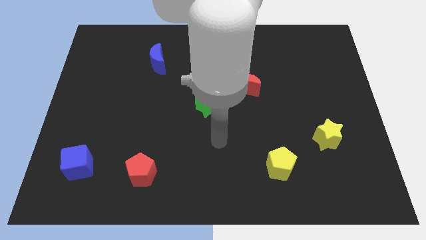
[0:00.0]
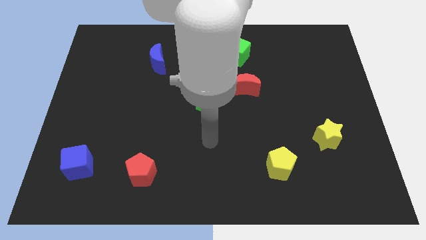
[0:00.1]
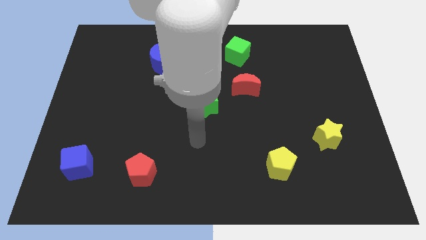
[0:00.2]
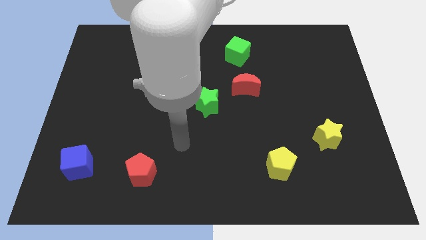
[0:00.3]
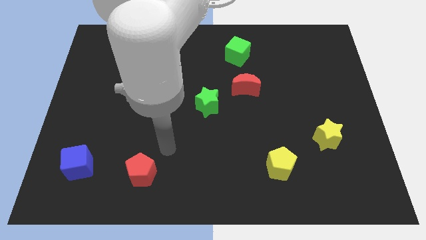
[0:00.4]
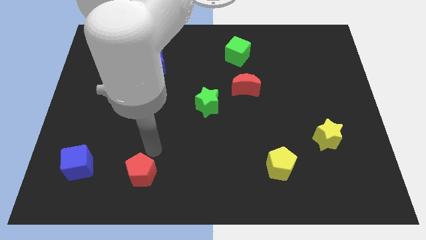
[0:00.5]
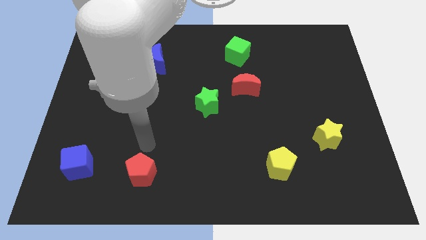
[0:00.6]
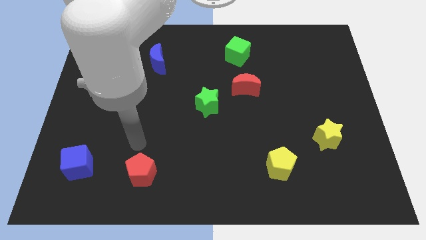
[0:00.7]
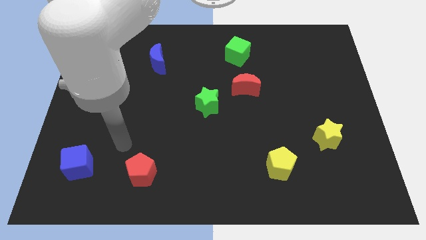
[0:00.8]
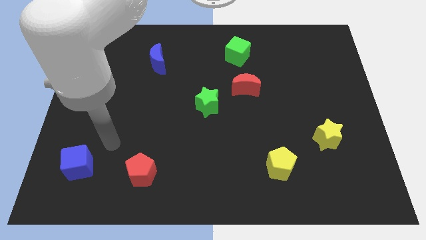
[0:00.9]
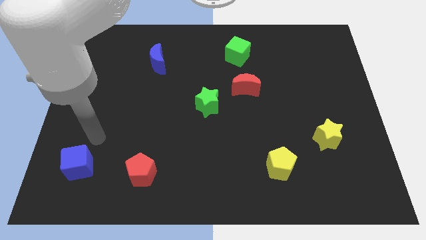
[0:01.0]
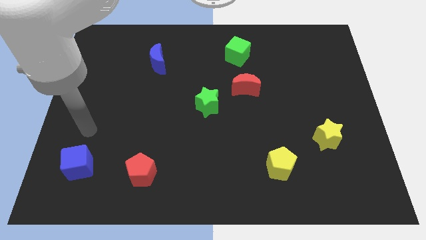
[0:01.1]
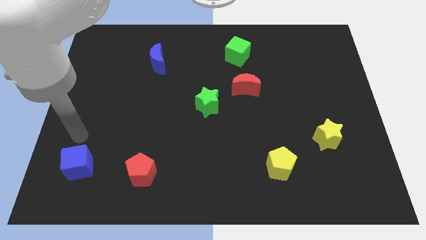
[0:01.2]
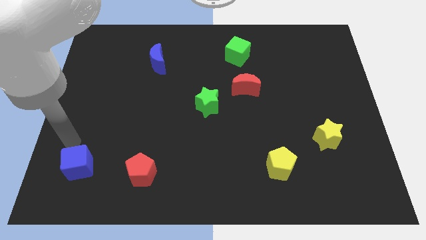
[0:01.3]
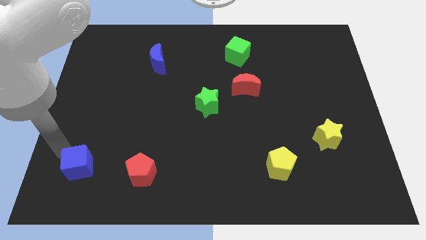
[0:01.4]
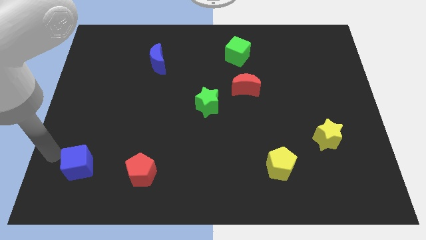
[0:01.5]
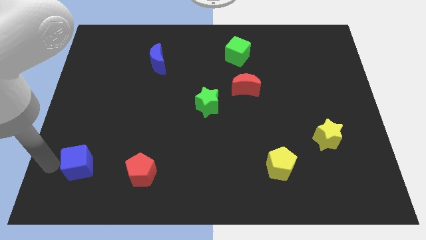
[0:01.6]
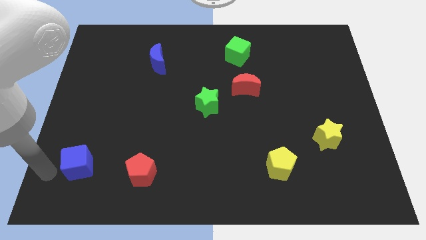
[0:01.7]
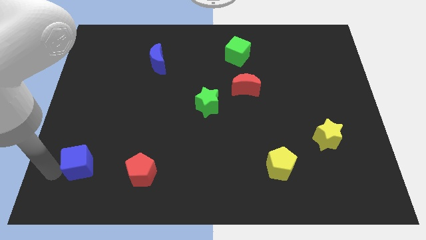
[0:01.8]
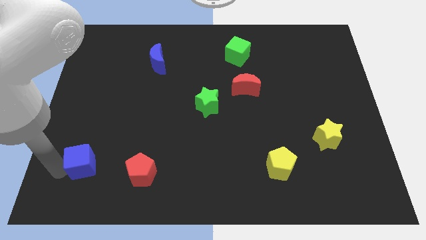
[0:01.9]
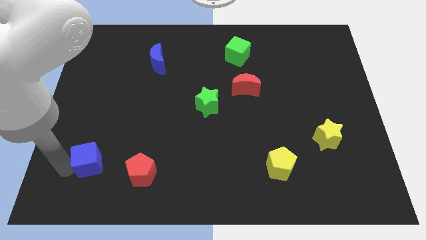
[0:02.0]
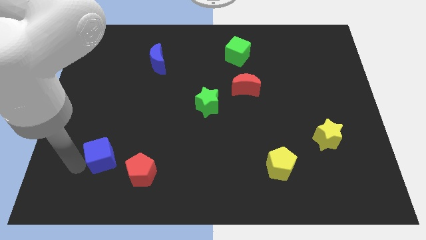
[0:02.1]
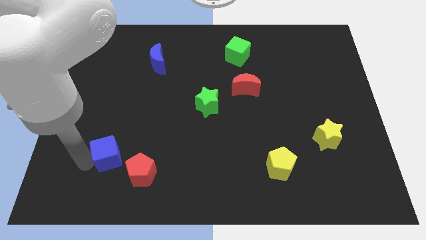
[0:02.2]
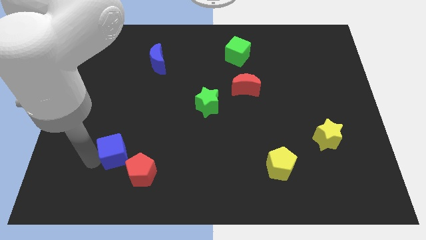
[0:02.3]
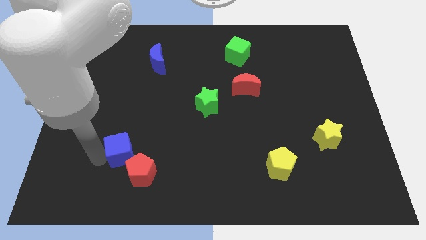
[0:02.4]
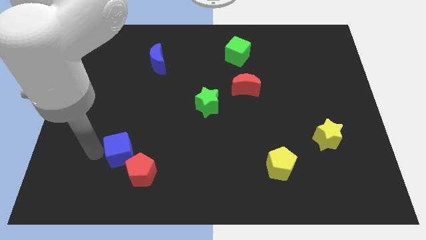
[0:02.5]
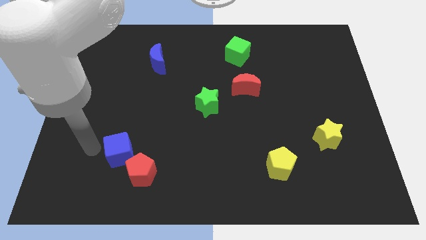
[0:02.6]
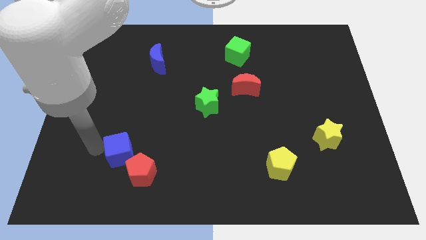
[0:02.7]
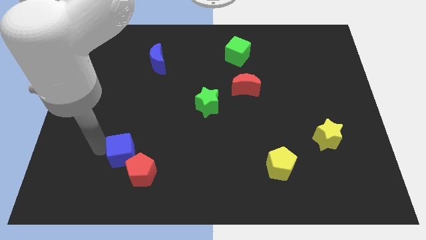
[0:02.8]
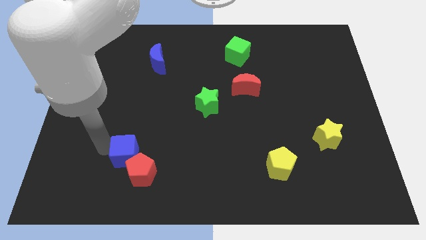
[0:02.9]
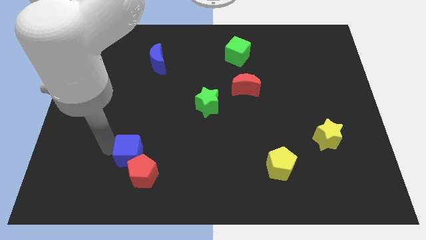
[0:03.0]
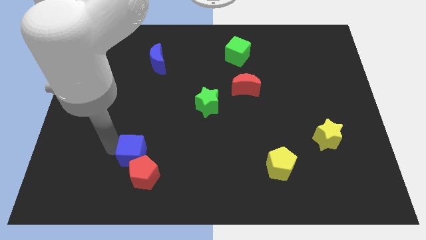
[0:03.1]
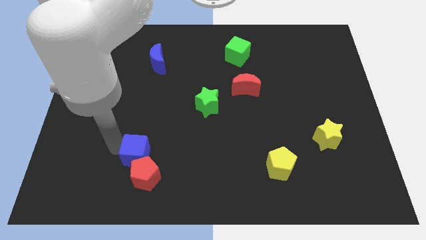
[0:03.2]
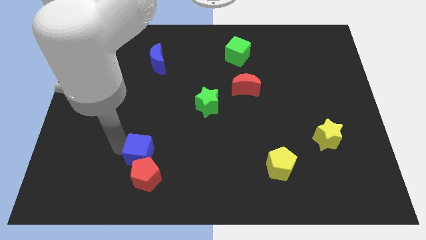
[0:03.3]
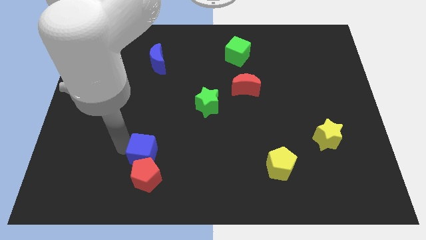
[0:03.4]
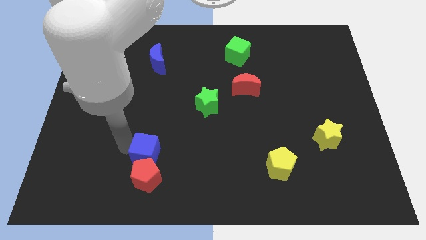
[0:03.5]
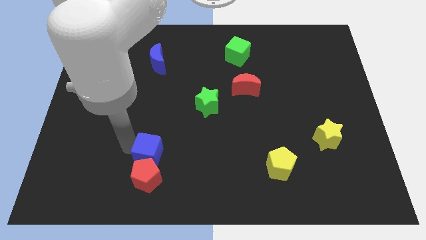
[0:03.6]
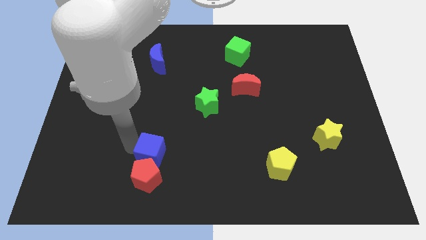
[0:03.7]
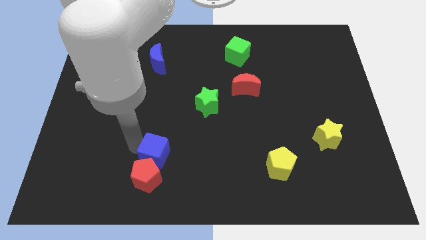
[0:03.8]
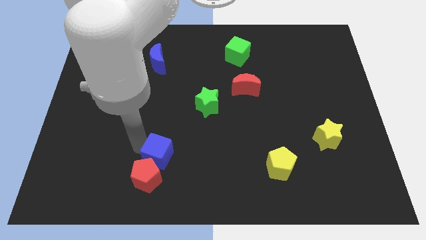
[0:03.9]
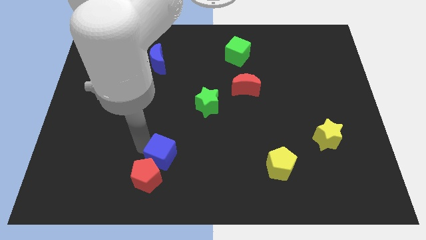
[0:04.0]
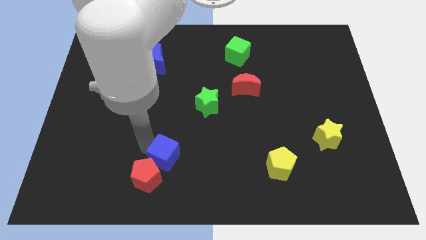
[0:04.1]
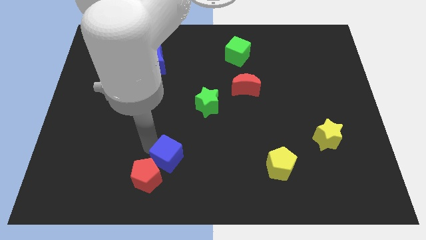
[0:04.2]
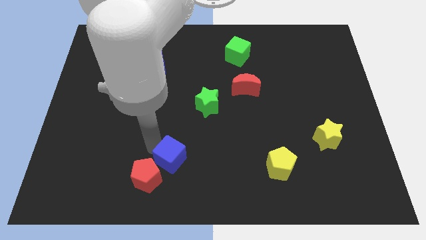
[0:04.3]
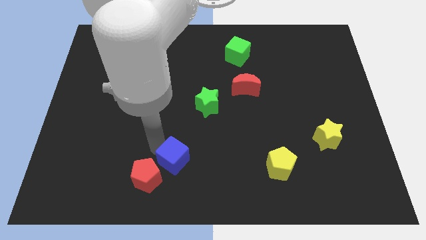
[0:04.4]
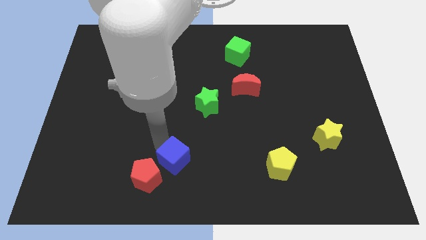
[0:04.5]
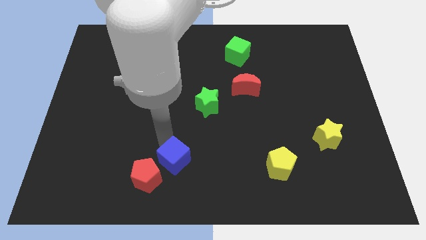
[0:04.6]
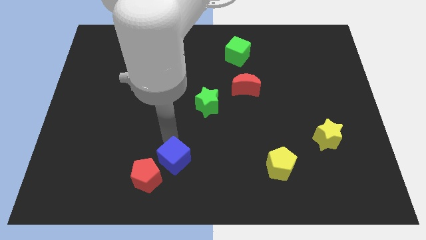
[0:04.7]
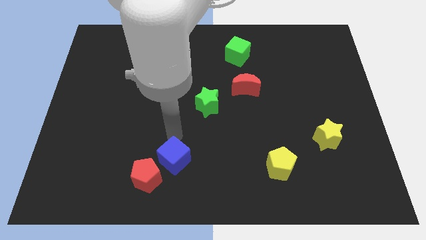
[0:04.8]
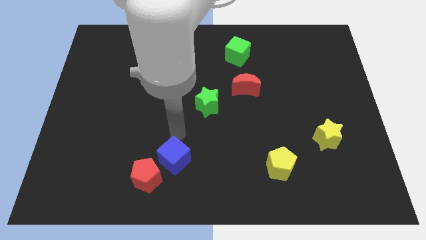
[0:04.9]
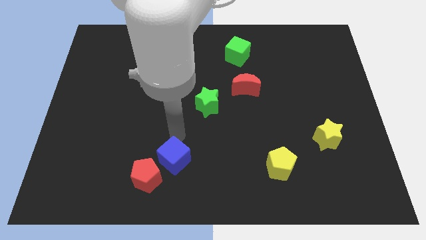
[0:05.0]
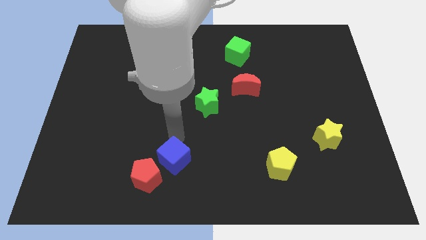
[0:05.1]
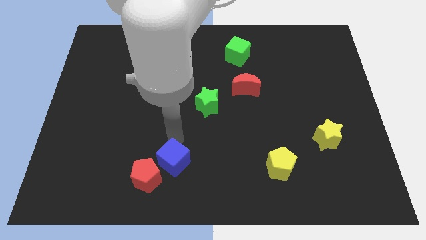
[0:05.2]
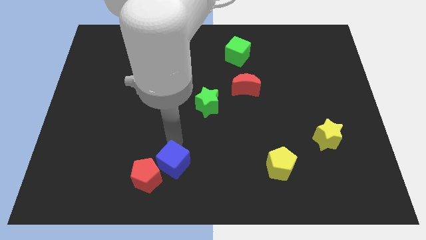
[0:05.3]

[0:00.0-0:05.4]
slide the blue cube to the bottom side
